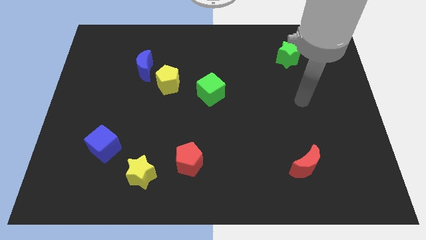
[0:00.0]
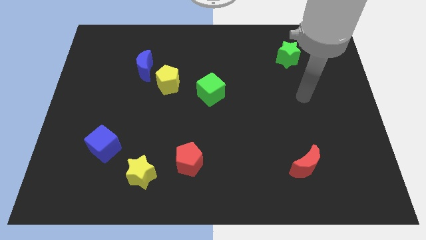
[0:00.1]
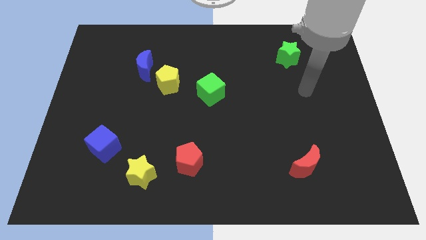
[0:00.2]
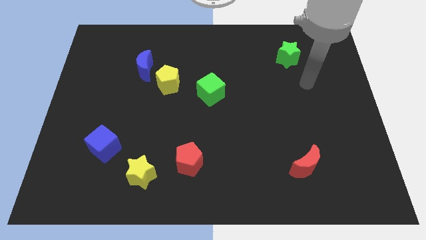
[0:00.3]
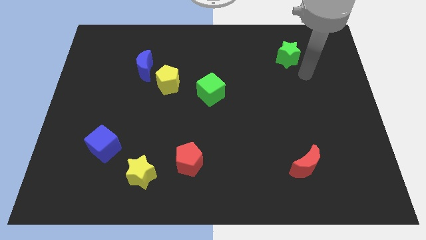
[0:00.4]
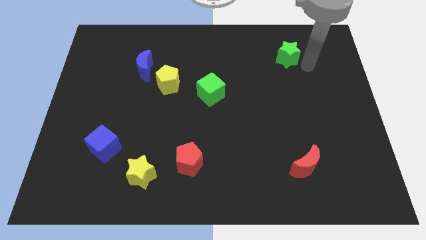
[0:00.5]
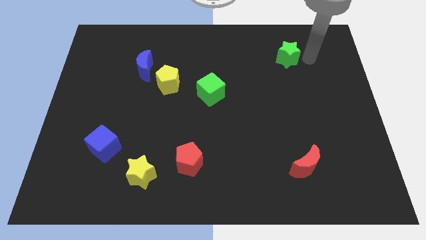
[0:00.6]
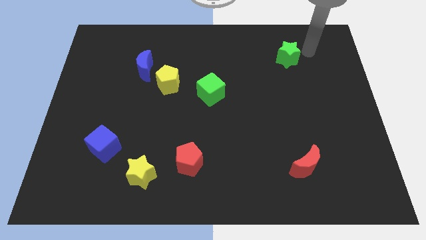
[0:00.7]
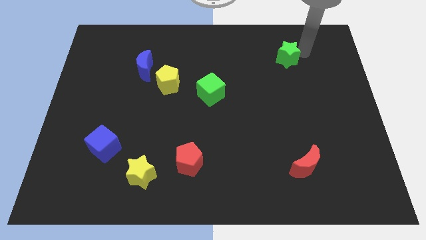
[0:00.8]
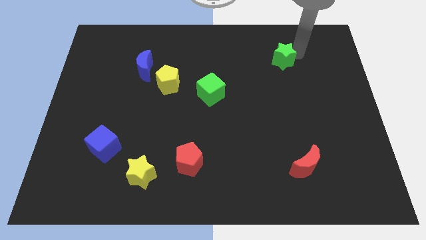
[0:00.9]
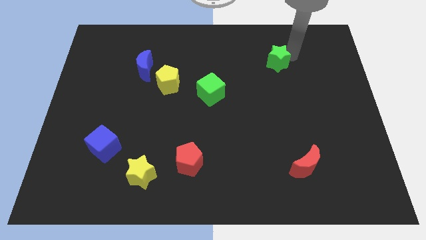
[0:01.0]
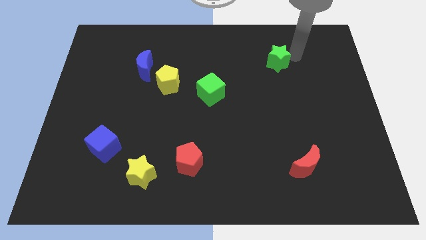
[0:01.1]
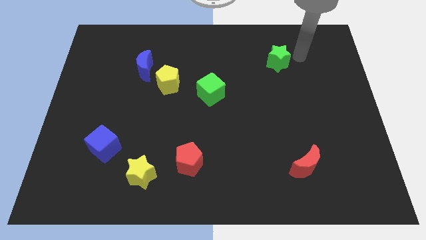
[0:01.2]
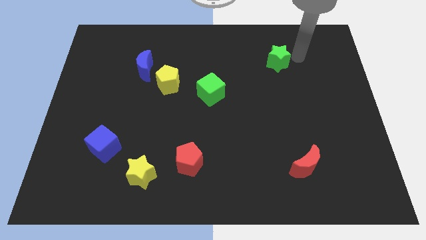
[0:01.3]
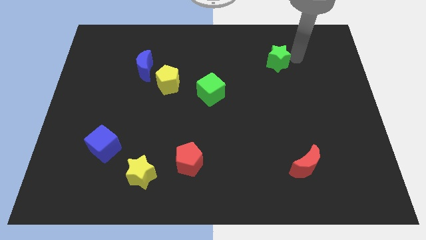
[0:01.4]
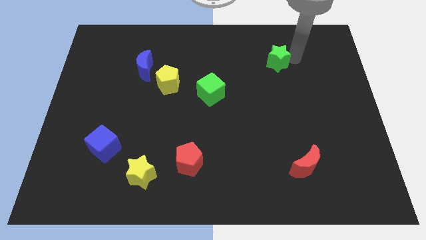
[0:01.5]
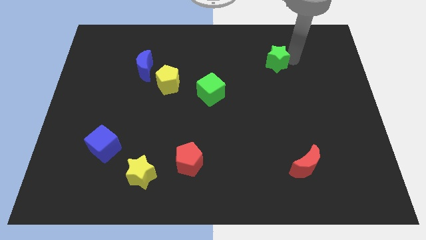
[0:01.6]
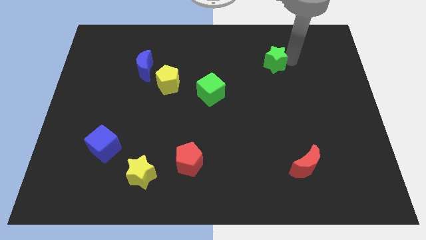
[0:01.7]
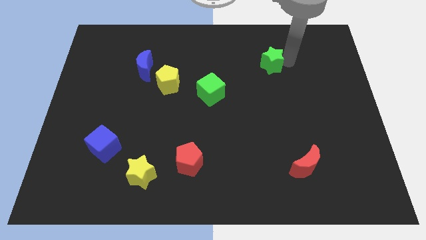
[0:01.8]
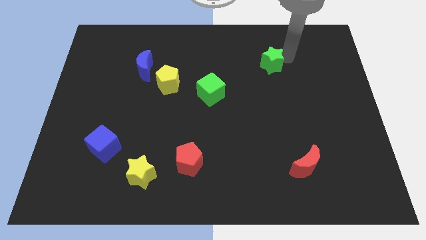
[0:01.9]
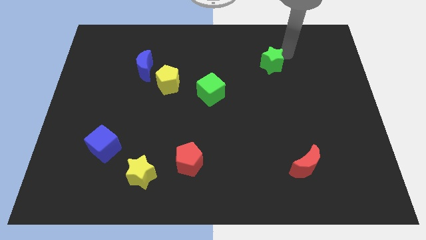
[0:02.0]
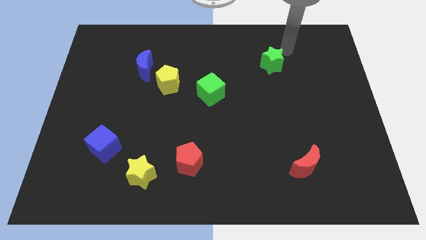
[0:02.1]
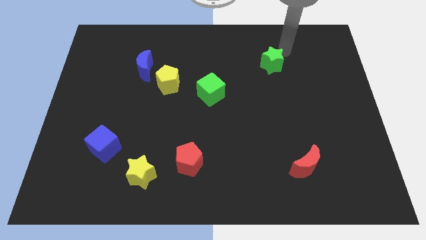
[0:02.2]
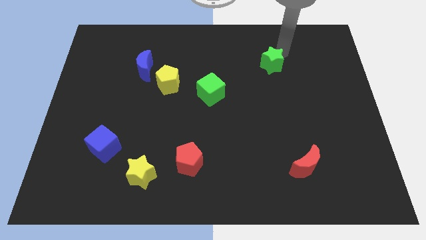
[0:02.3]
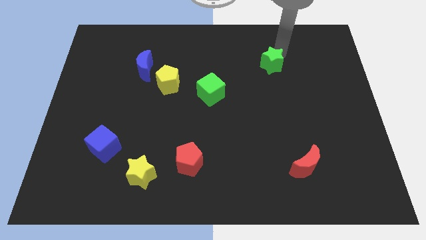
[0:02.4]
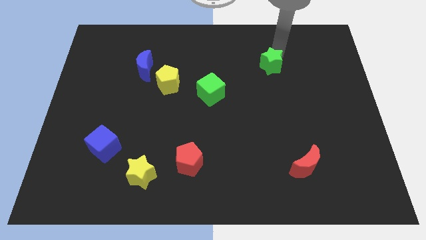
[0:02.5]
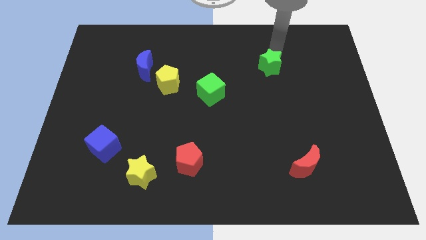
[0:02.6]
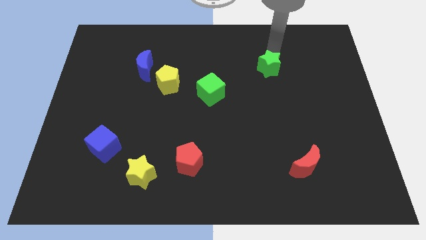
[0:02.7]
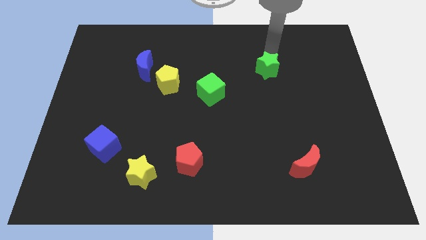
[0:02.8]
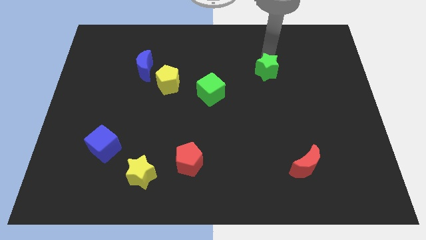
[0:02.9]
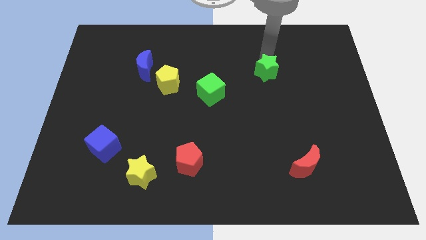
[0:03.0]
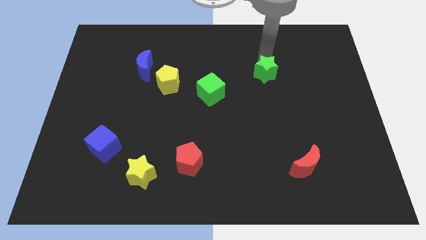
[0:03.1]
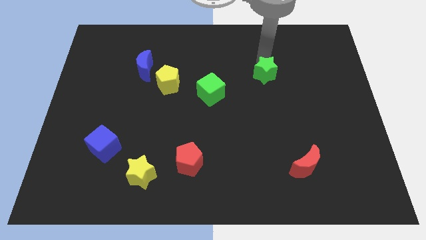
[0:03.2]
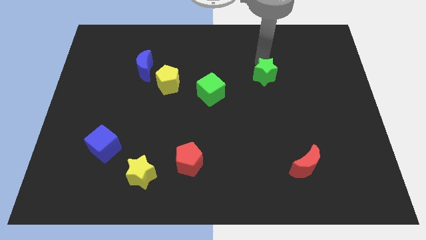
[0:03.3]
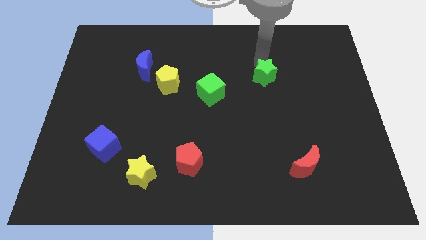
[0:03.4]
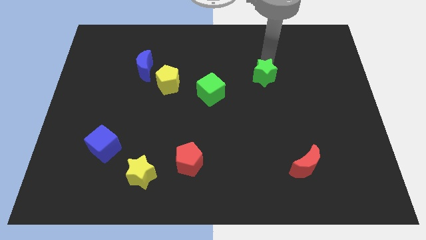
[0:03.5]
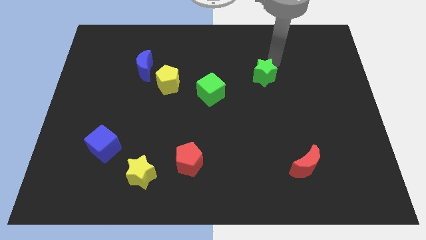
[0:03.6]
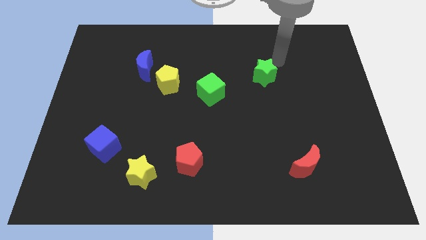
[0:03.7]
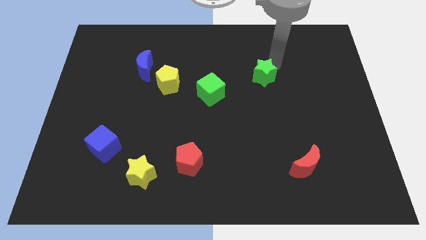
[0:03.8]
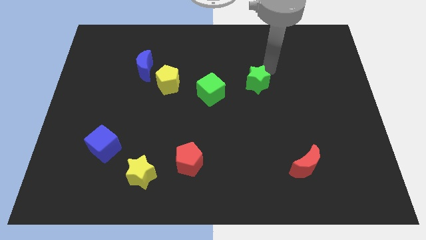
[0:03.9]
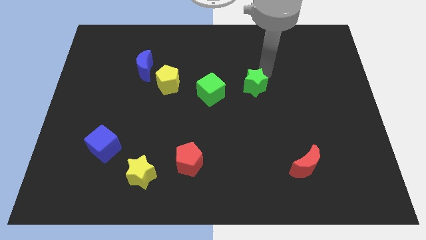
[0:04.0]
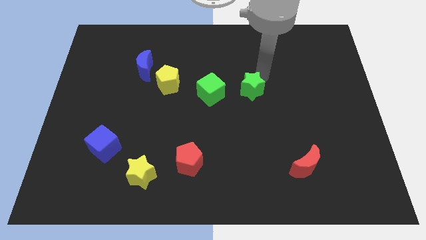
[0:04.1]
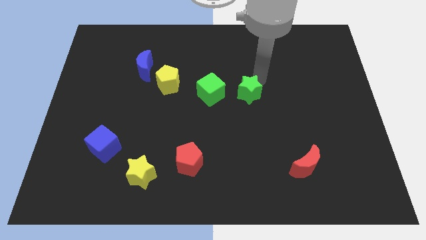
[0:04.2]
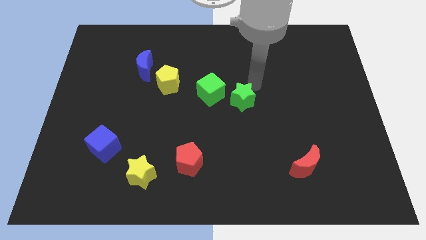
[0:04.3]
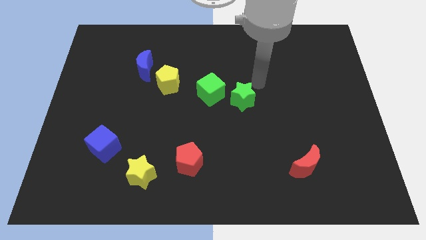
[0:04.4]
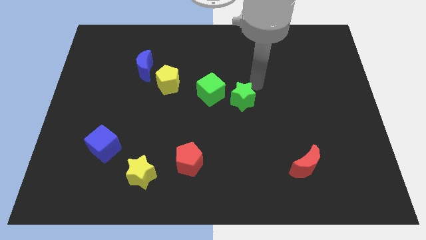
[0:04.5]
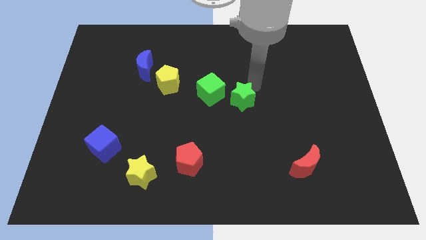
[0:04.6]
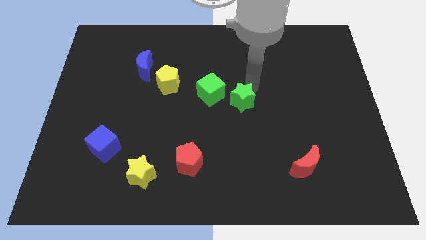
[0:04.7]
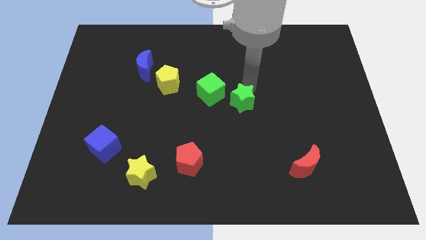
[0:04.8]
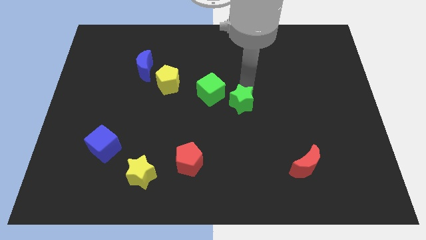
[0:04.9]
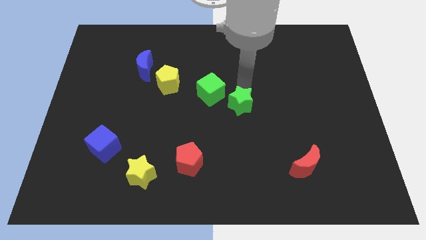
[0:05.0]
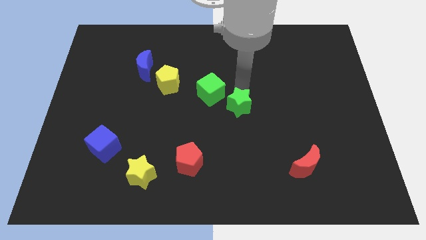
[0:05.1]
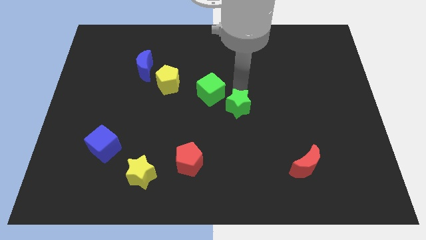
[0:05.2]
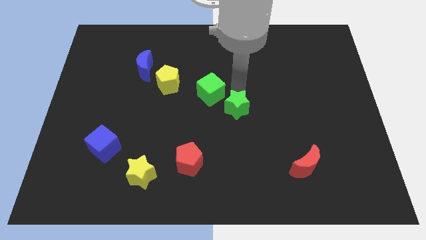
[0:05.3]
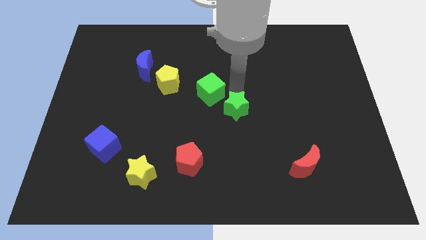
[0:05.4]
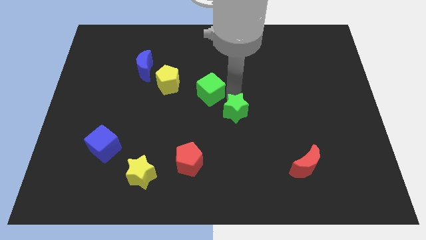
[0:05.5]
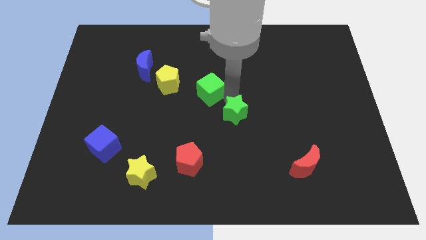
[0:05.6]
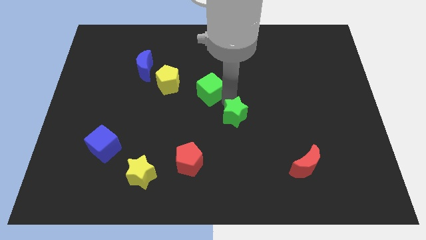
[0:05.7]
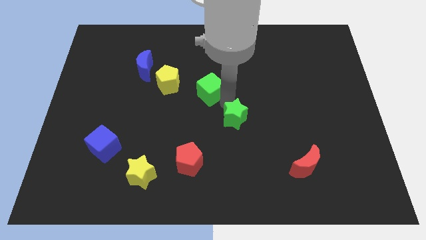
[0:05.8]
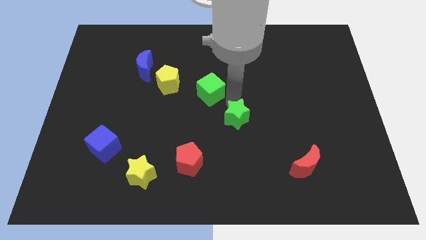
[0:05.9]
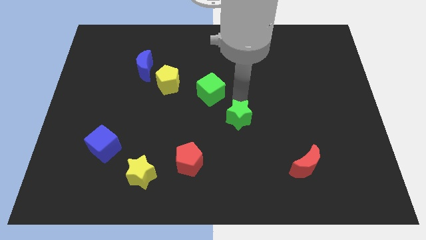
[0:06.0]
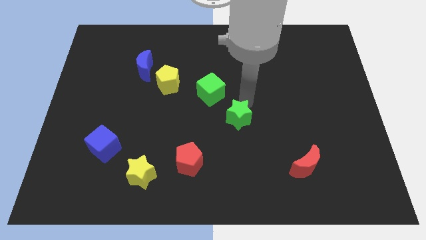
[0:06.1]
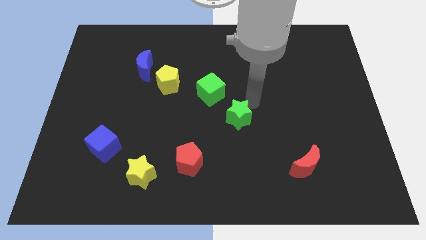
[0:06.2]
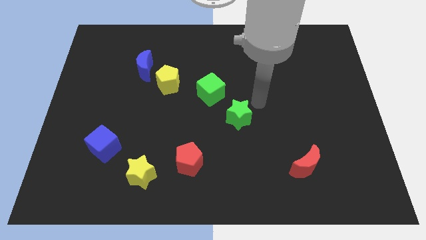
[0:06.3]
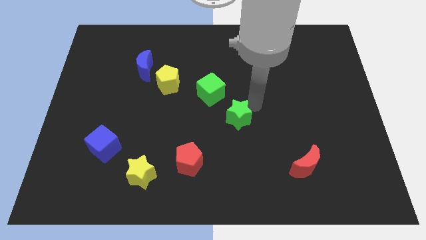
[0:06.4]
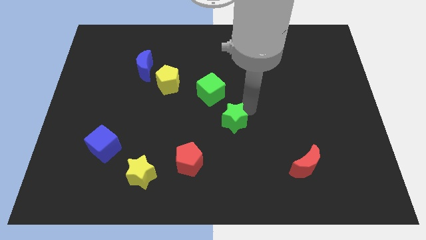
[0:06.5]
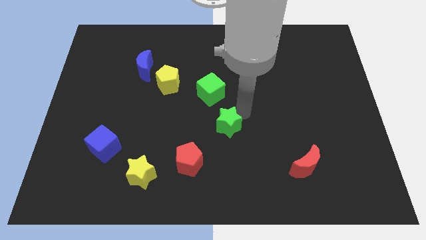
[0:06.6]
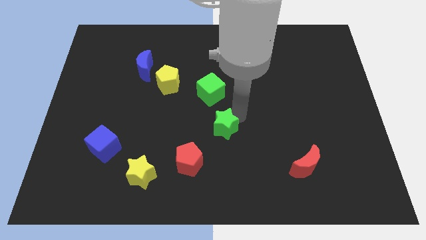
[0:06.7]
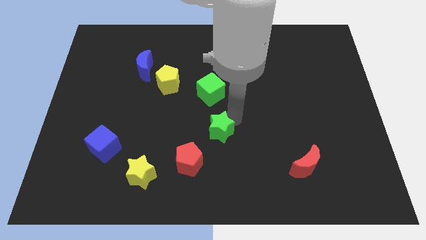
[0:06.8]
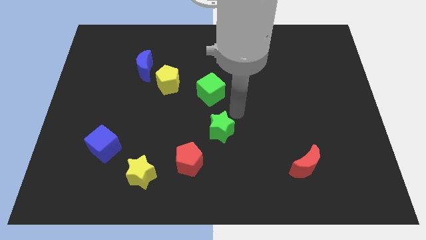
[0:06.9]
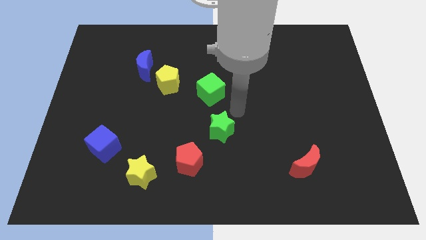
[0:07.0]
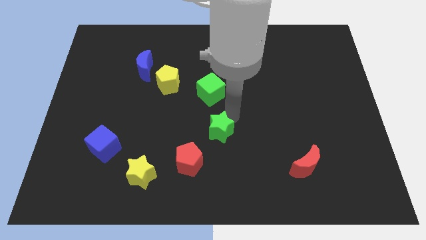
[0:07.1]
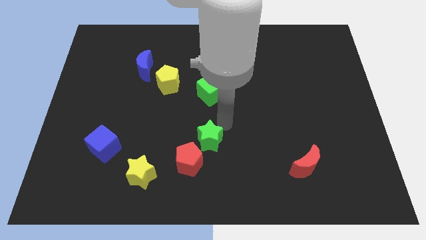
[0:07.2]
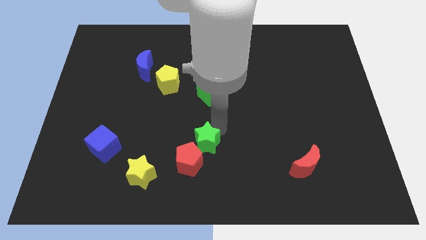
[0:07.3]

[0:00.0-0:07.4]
push the green star towards the red pentagon
